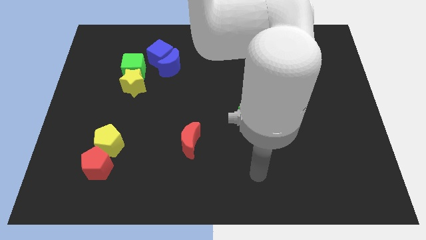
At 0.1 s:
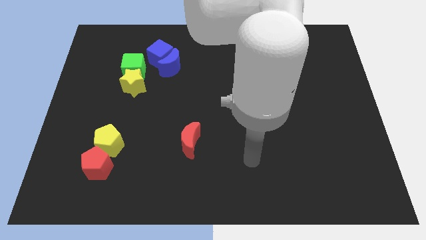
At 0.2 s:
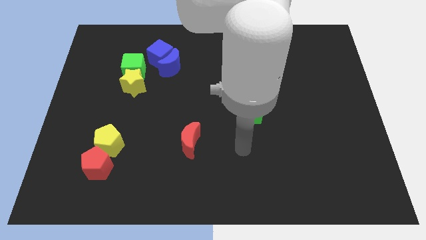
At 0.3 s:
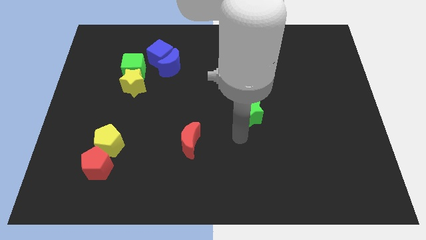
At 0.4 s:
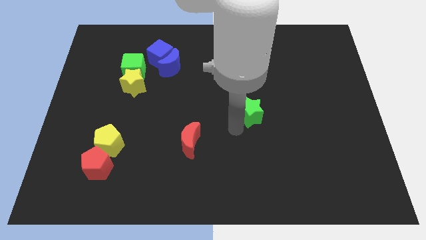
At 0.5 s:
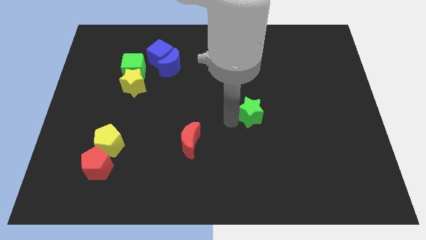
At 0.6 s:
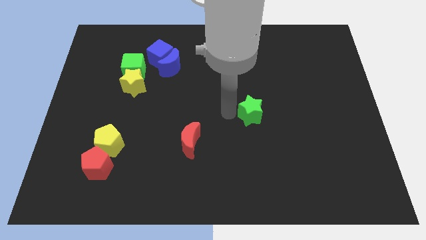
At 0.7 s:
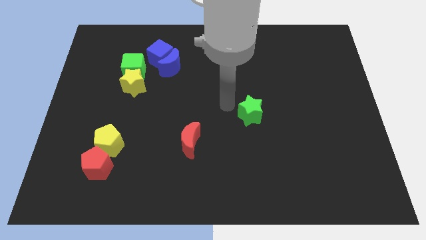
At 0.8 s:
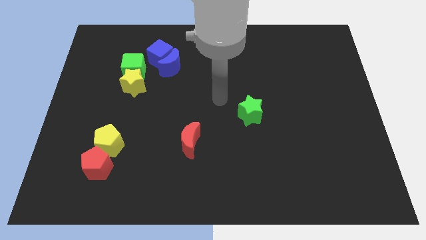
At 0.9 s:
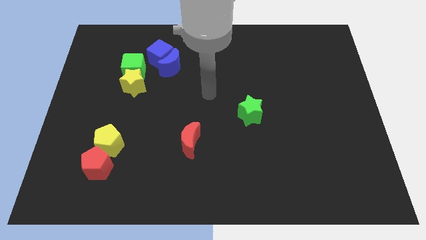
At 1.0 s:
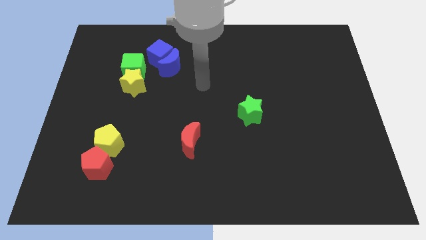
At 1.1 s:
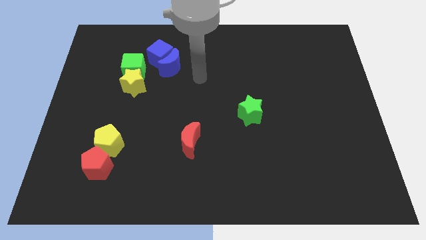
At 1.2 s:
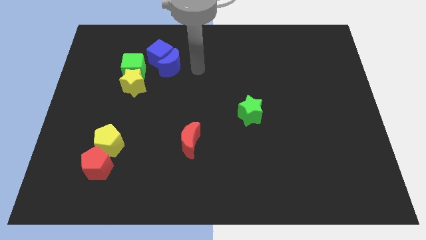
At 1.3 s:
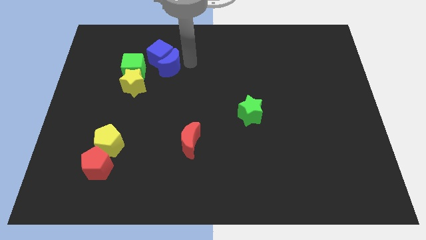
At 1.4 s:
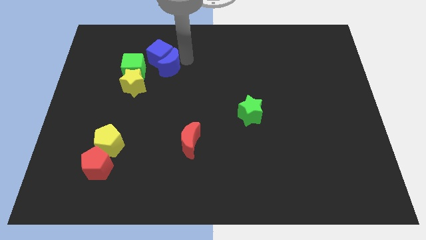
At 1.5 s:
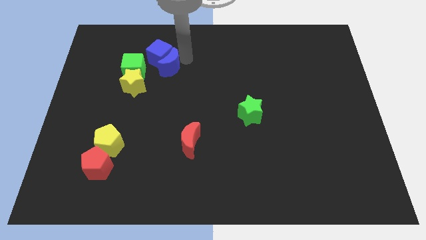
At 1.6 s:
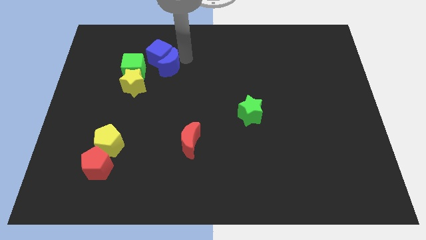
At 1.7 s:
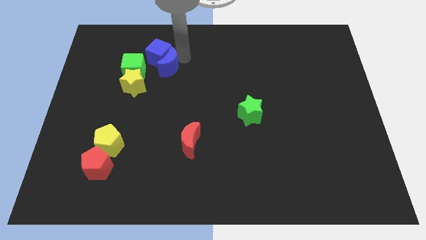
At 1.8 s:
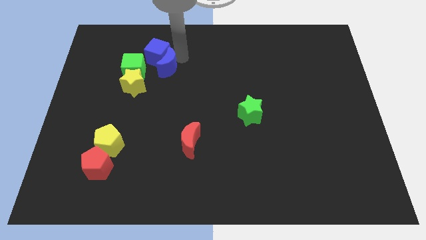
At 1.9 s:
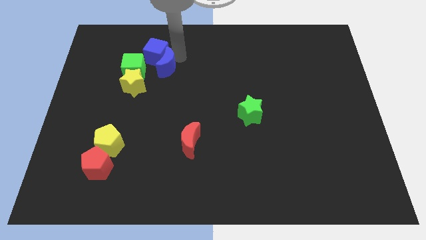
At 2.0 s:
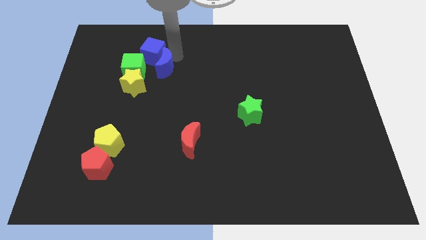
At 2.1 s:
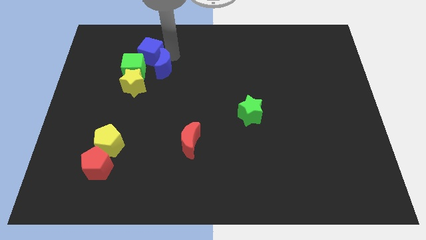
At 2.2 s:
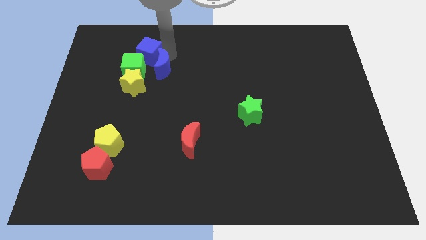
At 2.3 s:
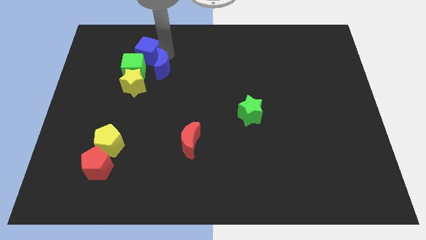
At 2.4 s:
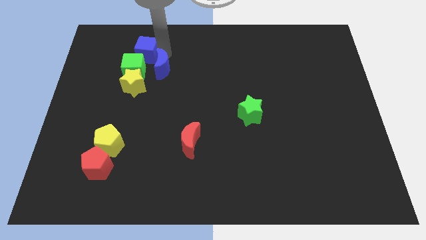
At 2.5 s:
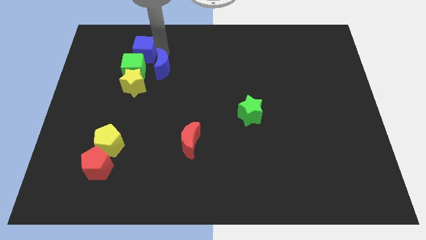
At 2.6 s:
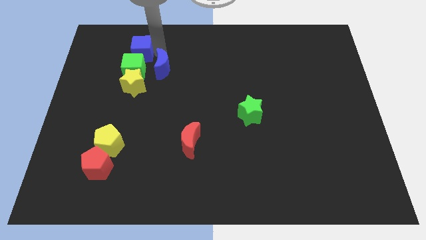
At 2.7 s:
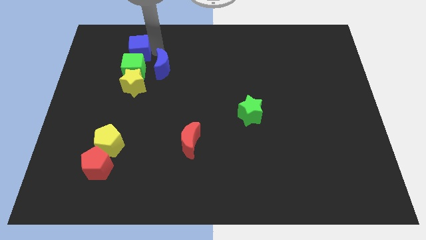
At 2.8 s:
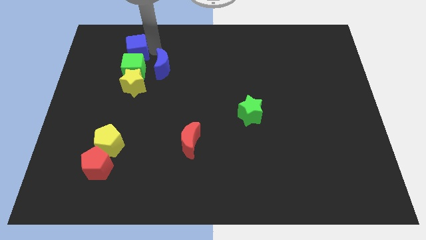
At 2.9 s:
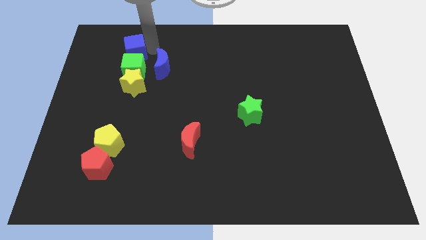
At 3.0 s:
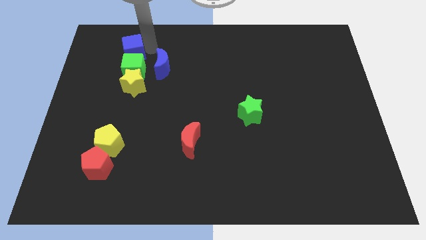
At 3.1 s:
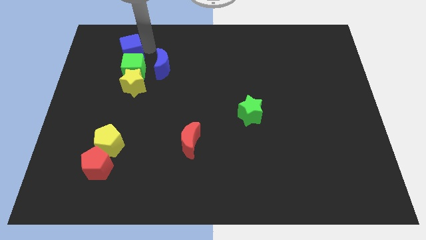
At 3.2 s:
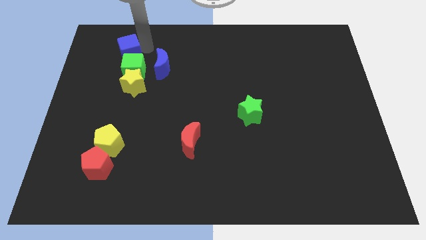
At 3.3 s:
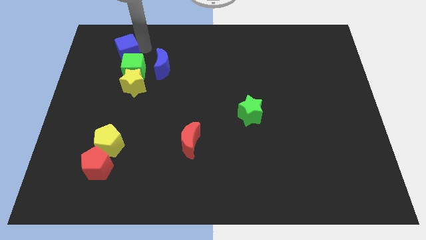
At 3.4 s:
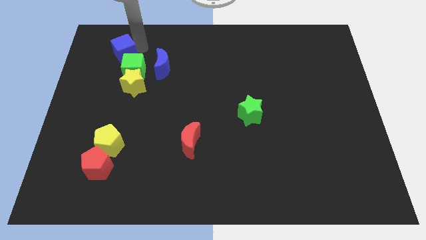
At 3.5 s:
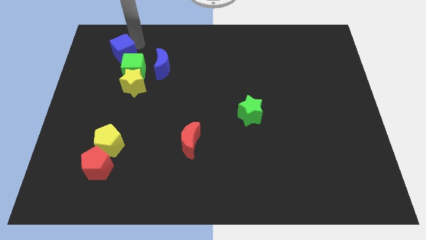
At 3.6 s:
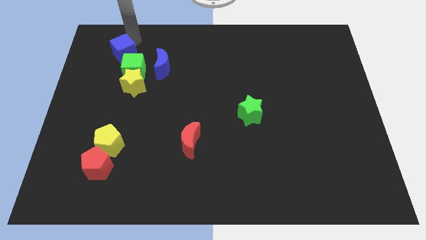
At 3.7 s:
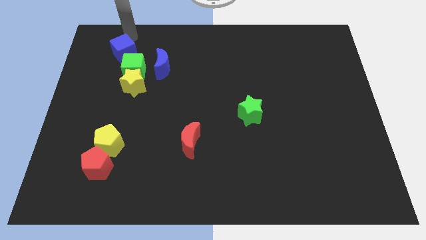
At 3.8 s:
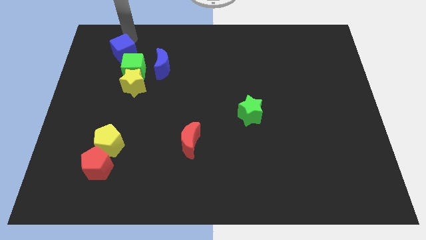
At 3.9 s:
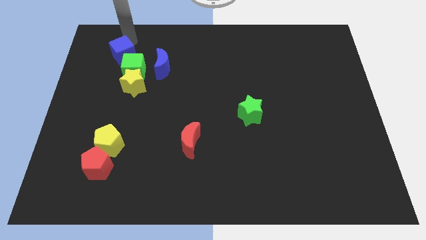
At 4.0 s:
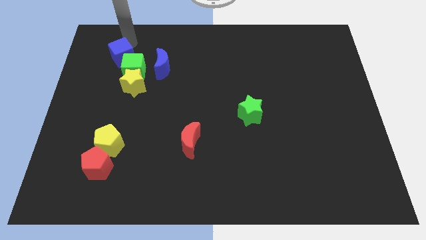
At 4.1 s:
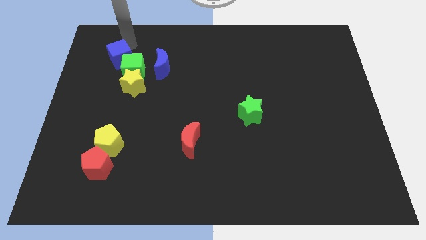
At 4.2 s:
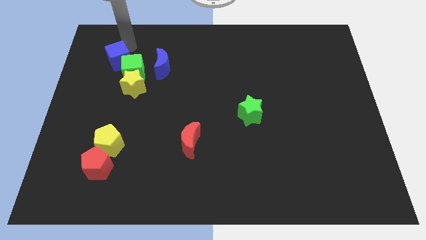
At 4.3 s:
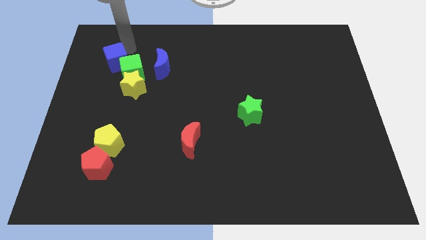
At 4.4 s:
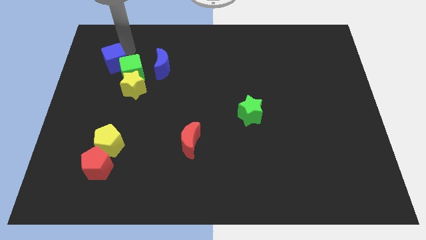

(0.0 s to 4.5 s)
push the blue cube downwards and to the left a little

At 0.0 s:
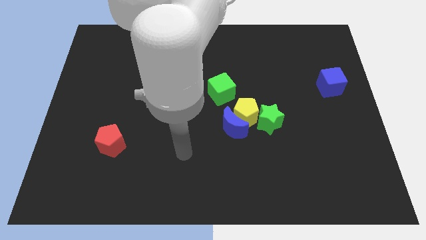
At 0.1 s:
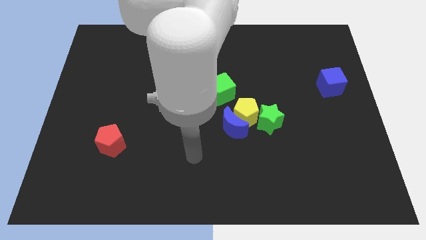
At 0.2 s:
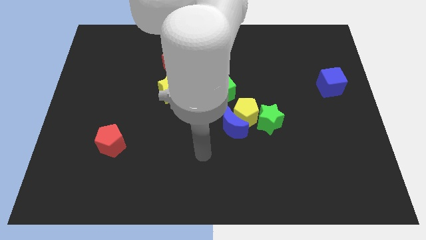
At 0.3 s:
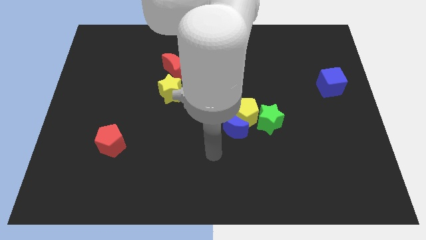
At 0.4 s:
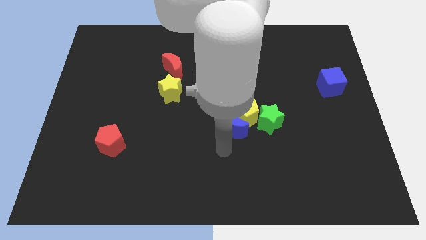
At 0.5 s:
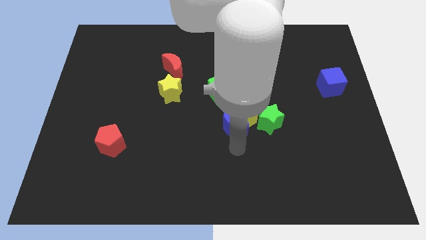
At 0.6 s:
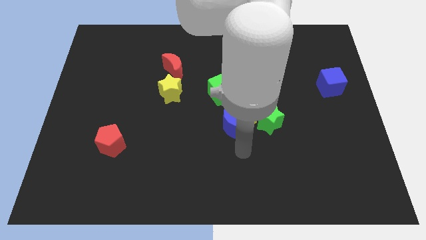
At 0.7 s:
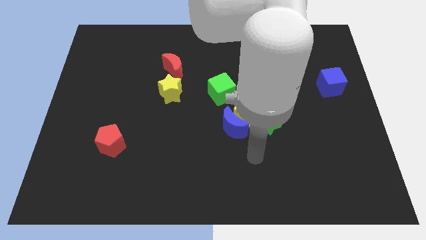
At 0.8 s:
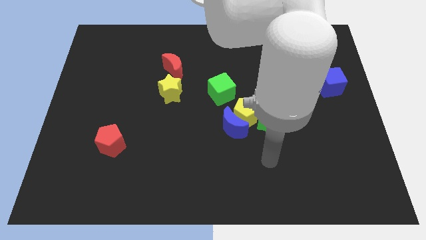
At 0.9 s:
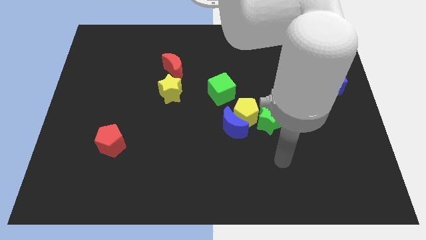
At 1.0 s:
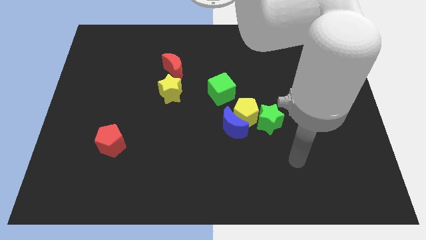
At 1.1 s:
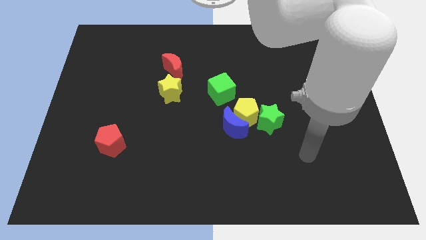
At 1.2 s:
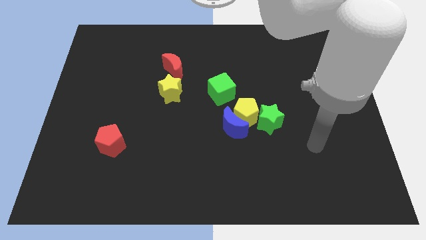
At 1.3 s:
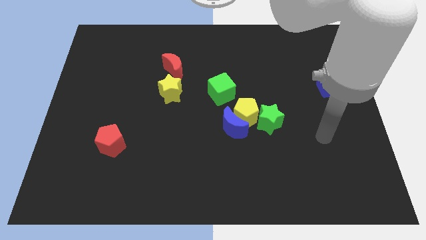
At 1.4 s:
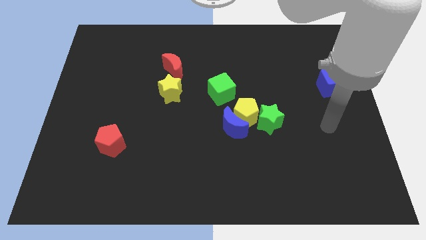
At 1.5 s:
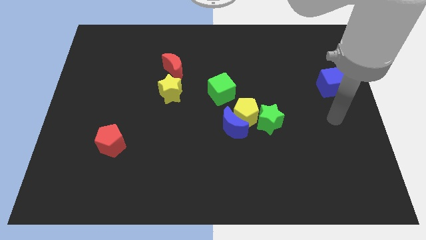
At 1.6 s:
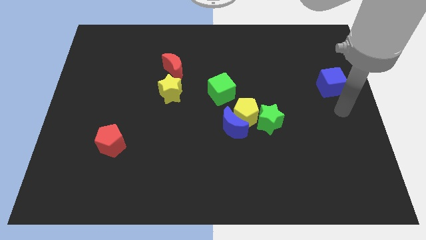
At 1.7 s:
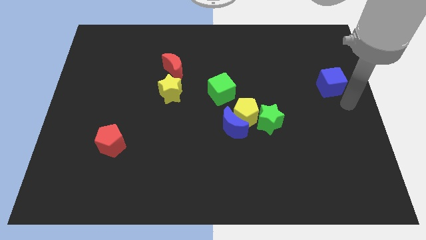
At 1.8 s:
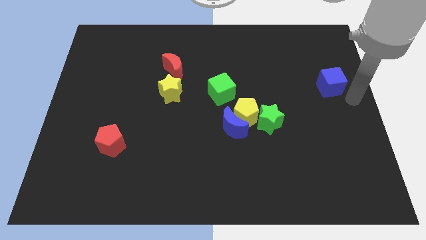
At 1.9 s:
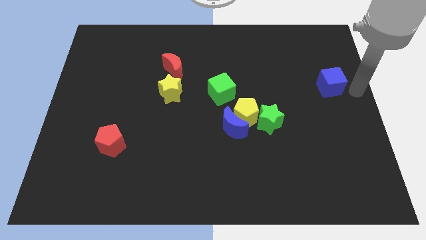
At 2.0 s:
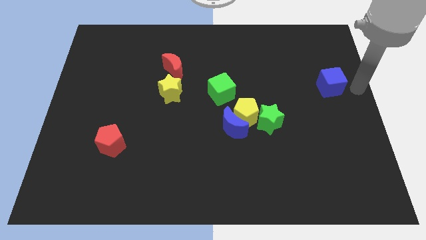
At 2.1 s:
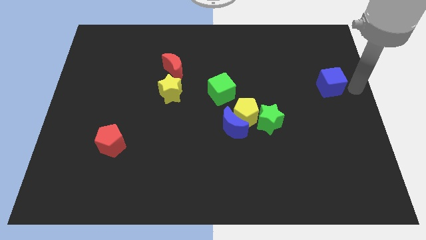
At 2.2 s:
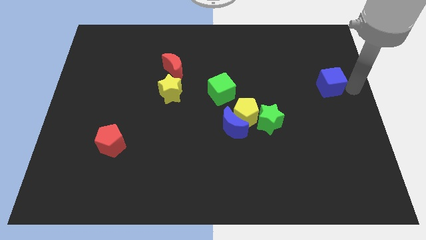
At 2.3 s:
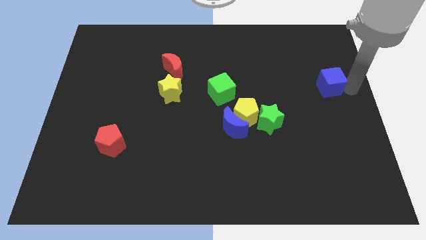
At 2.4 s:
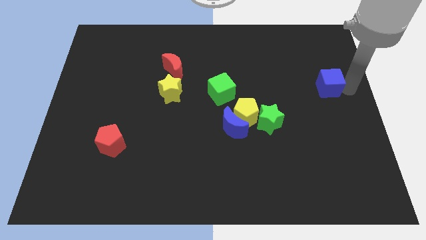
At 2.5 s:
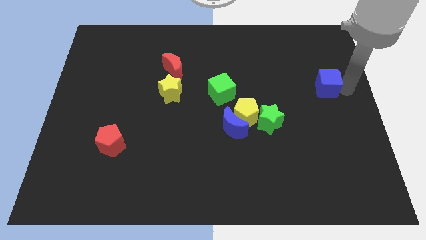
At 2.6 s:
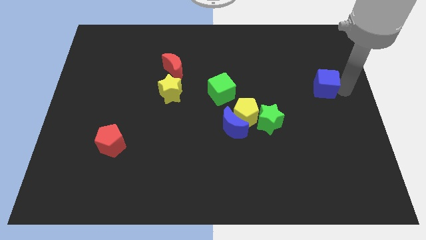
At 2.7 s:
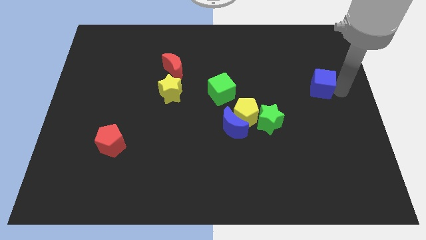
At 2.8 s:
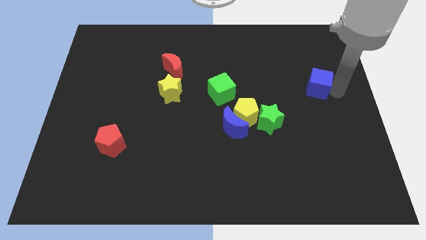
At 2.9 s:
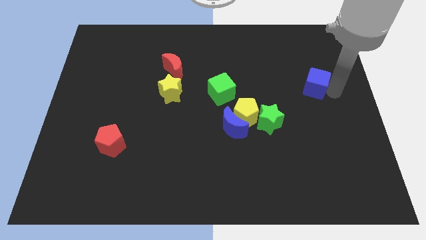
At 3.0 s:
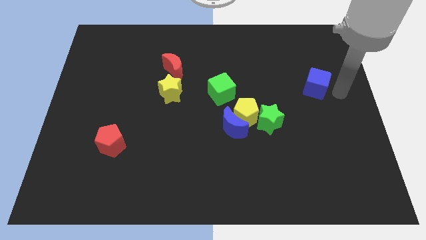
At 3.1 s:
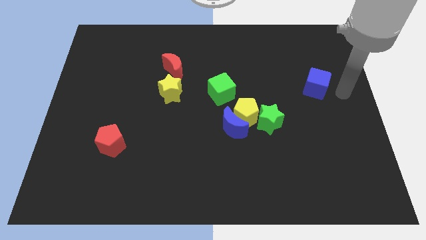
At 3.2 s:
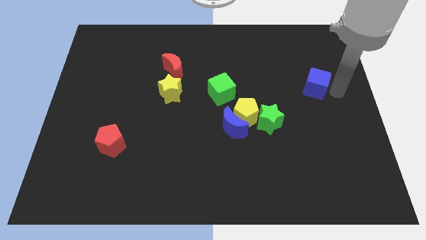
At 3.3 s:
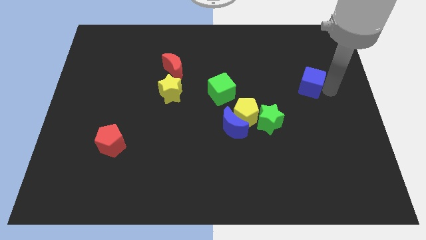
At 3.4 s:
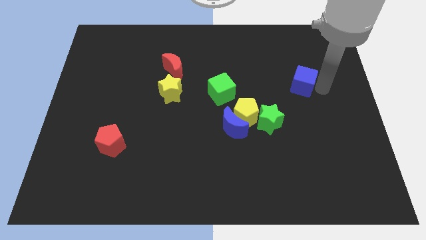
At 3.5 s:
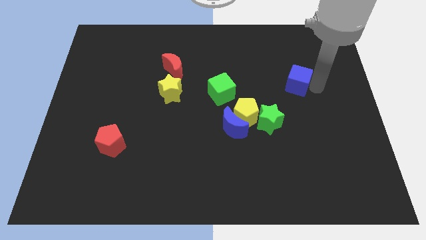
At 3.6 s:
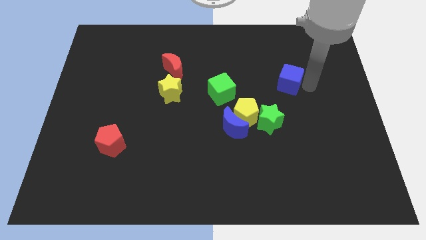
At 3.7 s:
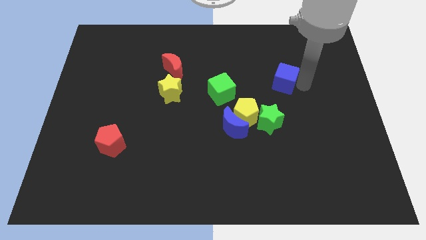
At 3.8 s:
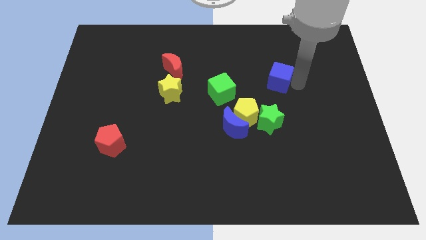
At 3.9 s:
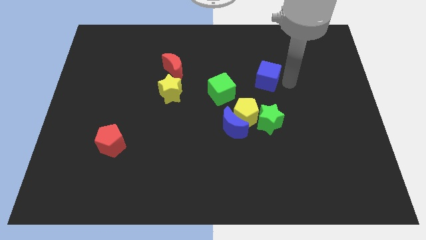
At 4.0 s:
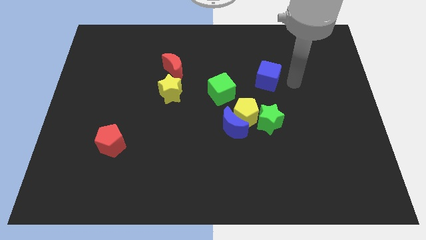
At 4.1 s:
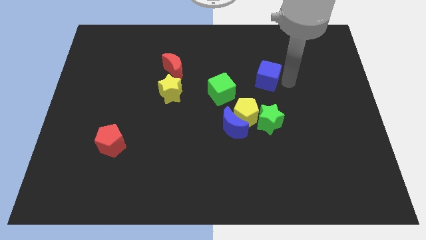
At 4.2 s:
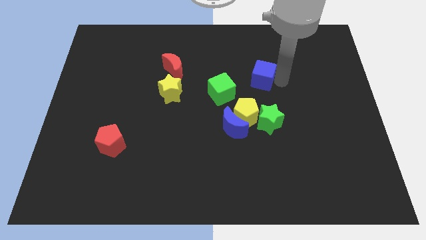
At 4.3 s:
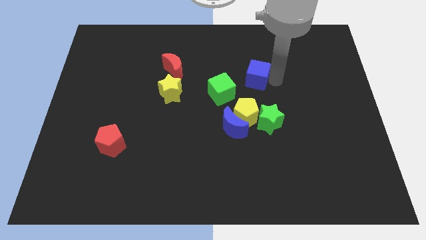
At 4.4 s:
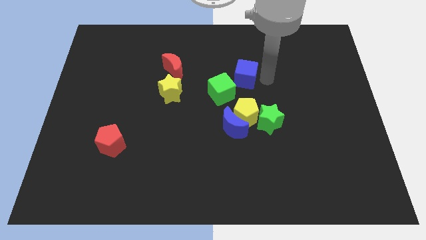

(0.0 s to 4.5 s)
slide the blue cube left
